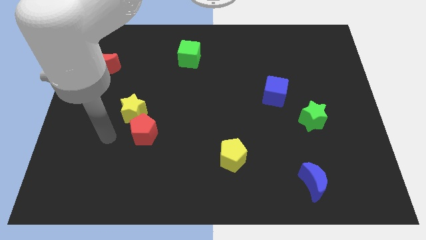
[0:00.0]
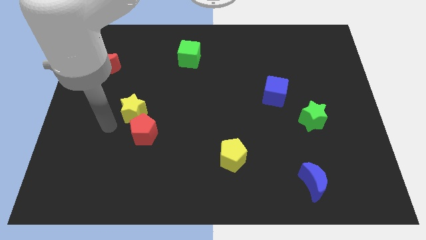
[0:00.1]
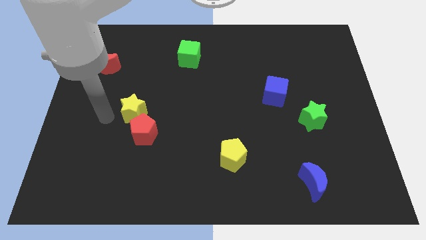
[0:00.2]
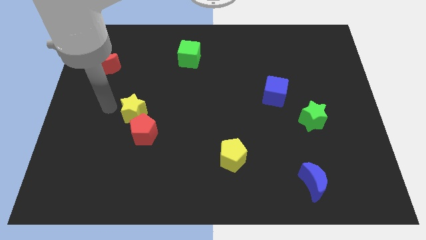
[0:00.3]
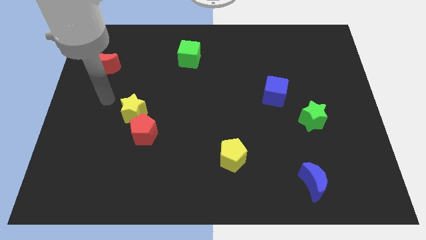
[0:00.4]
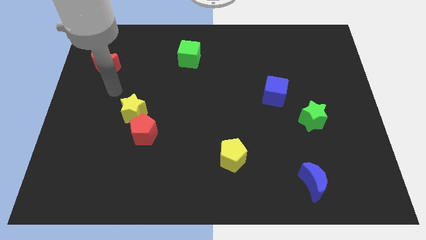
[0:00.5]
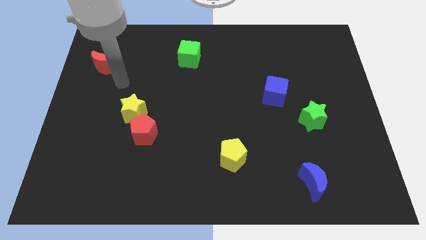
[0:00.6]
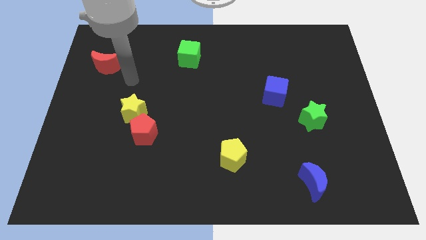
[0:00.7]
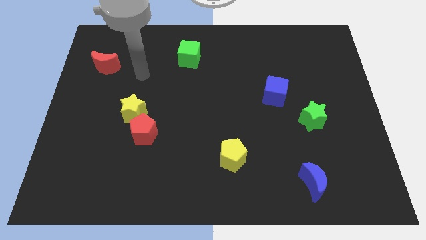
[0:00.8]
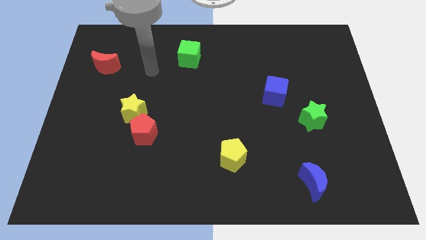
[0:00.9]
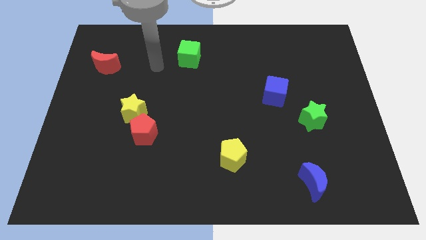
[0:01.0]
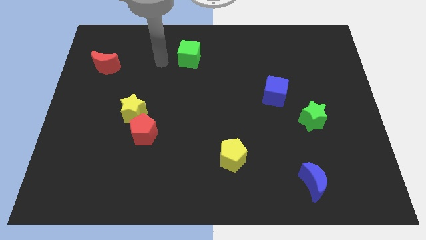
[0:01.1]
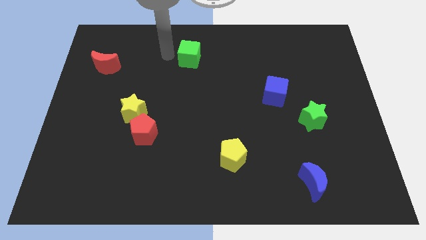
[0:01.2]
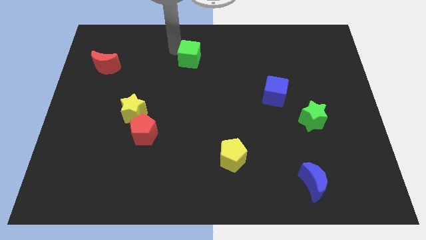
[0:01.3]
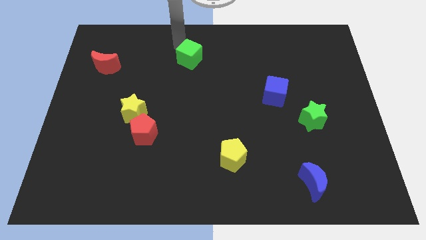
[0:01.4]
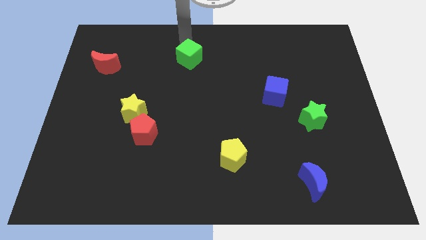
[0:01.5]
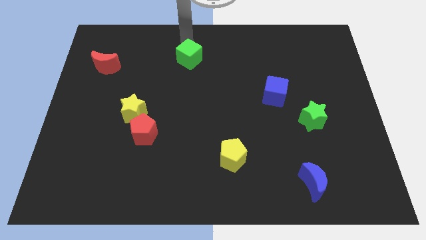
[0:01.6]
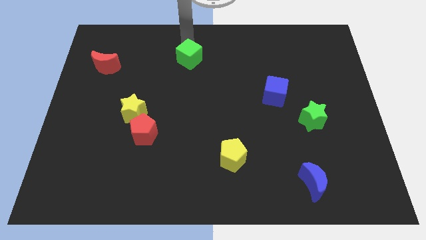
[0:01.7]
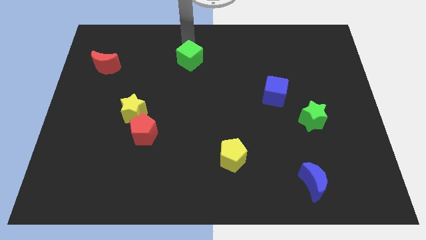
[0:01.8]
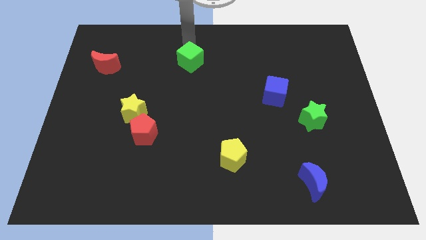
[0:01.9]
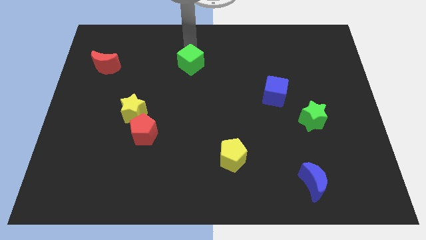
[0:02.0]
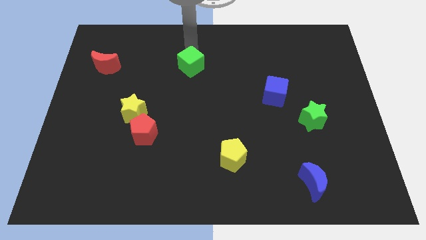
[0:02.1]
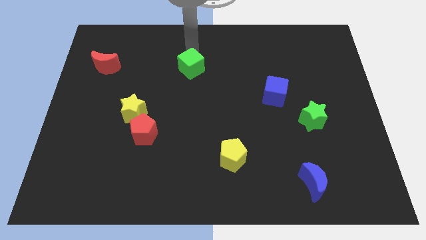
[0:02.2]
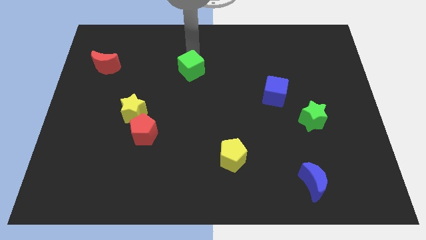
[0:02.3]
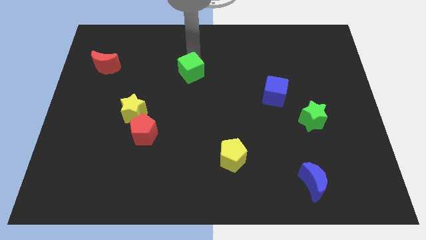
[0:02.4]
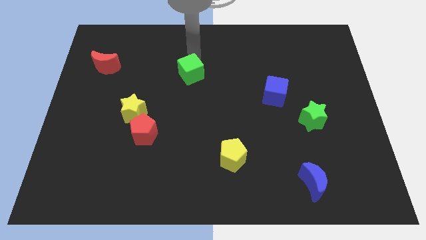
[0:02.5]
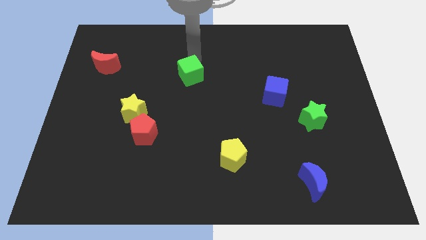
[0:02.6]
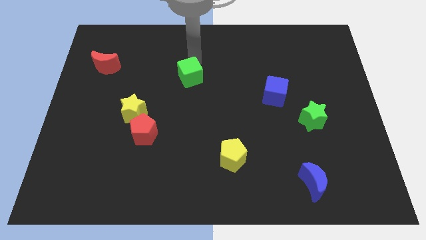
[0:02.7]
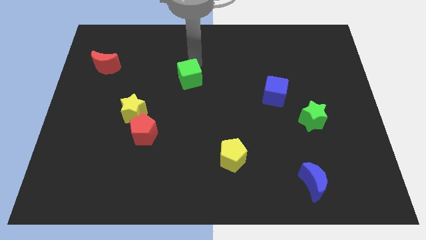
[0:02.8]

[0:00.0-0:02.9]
slightly slide the green cube down

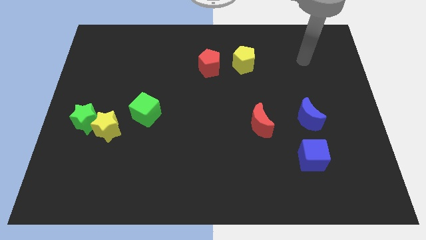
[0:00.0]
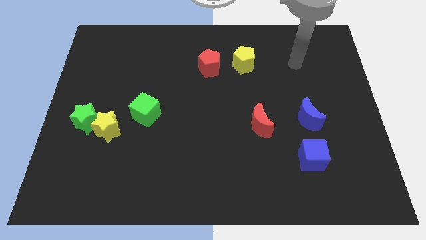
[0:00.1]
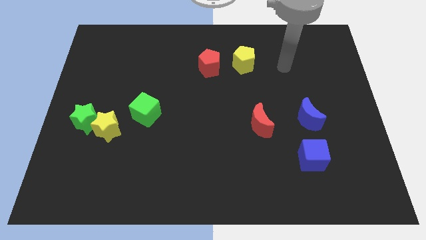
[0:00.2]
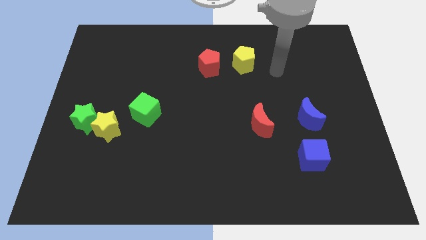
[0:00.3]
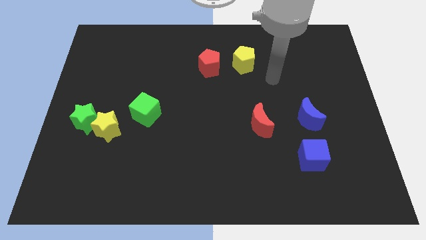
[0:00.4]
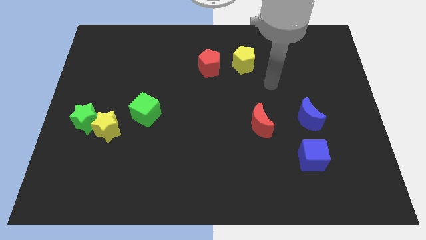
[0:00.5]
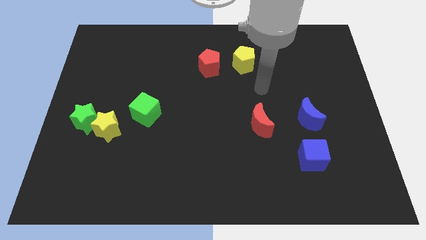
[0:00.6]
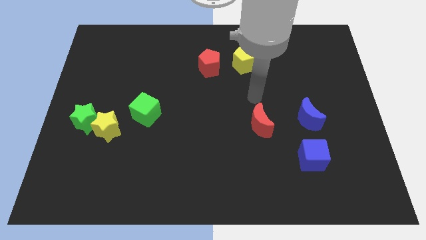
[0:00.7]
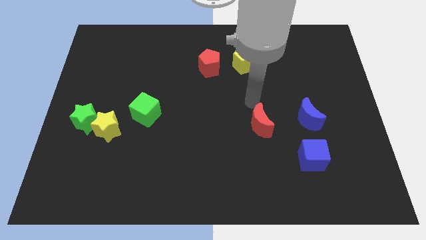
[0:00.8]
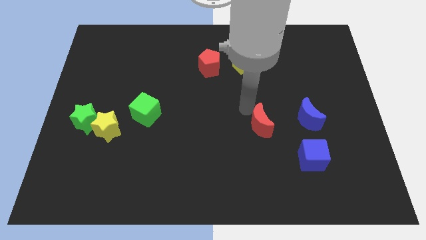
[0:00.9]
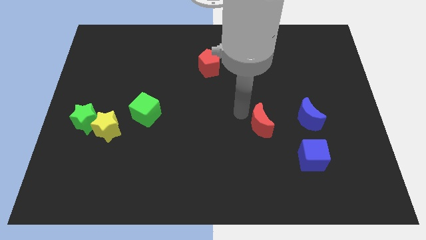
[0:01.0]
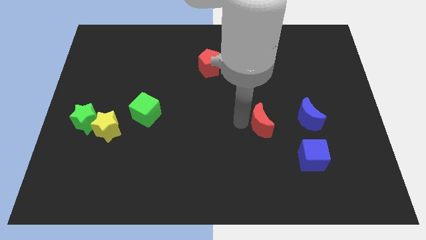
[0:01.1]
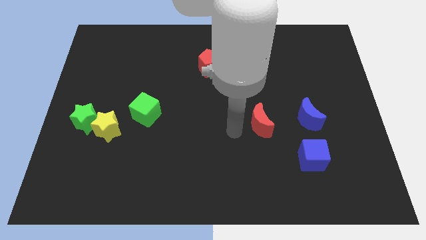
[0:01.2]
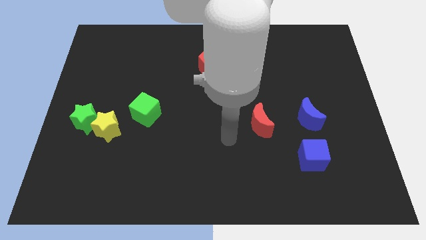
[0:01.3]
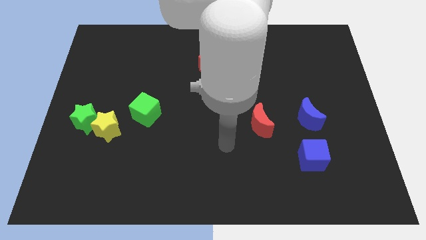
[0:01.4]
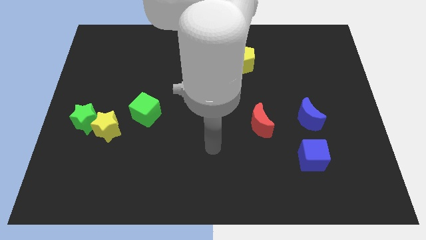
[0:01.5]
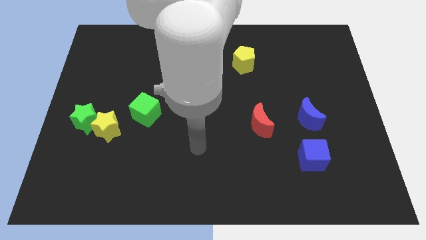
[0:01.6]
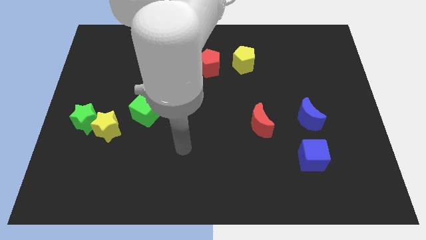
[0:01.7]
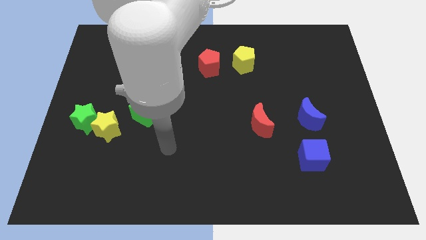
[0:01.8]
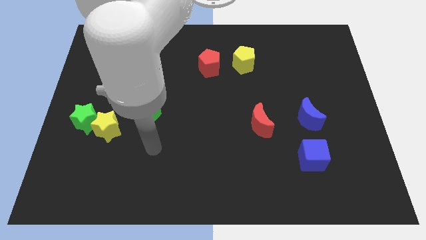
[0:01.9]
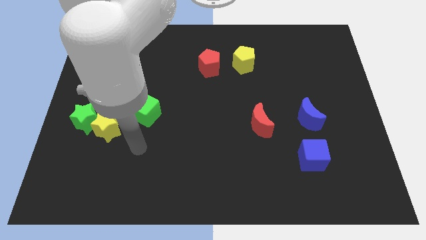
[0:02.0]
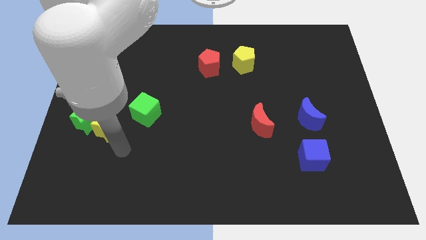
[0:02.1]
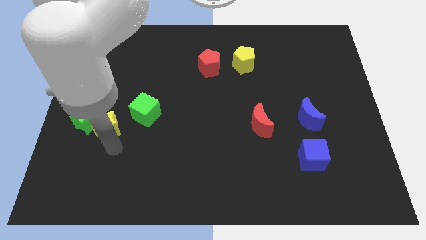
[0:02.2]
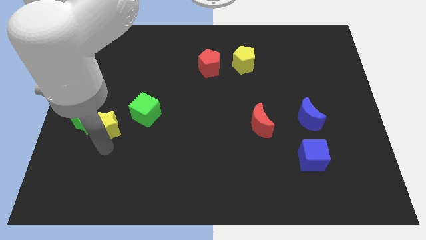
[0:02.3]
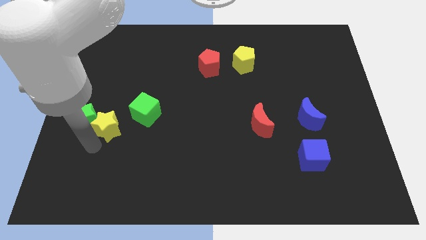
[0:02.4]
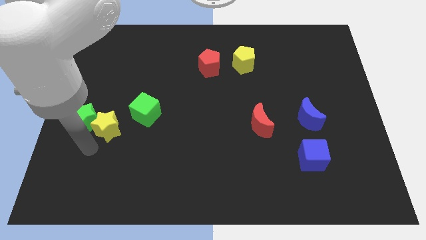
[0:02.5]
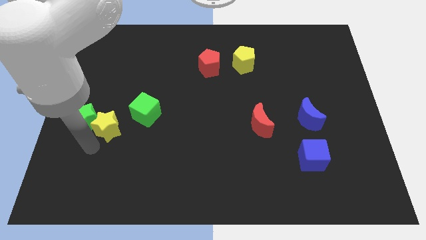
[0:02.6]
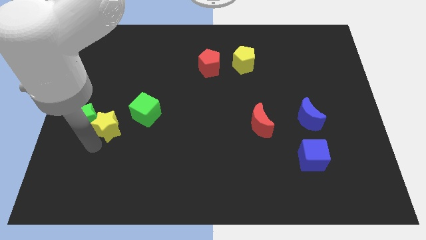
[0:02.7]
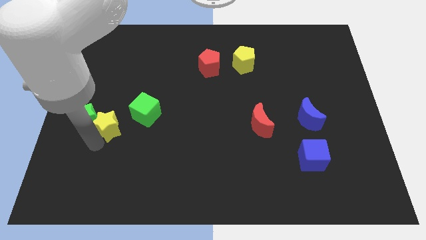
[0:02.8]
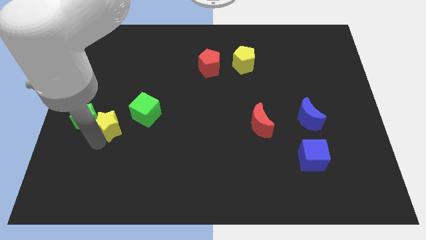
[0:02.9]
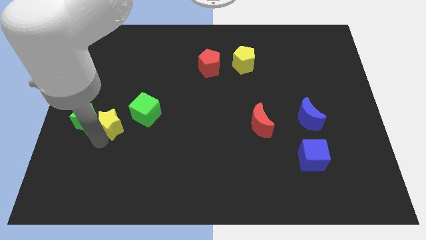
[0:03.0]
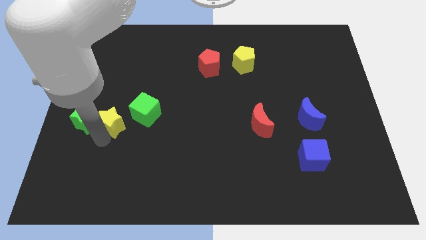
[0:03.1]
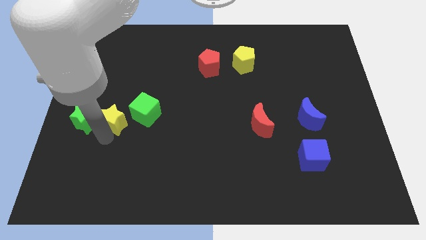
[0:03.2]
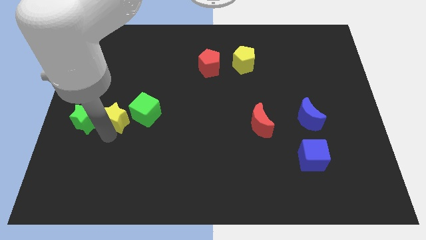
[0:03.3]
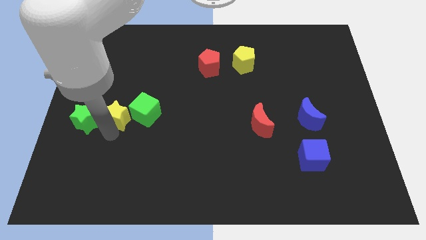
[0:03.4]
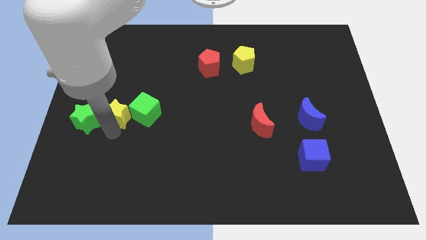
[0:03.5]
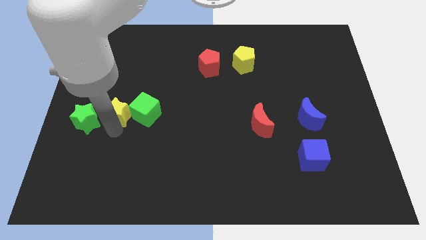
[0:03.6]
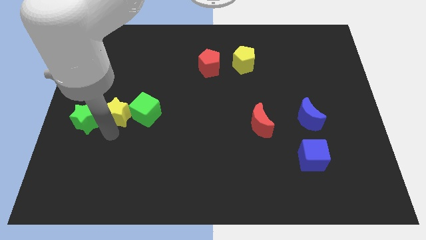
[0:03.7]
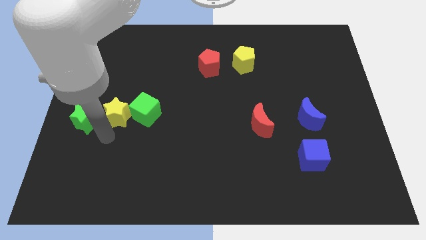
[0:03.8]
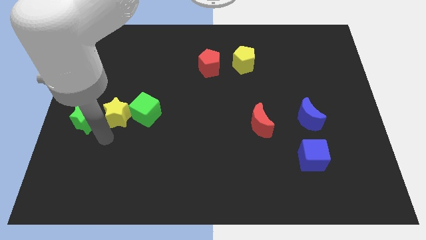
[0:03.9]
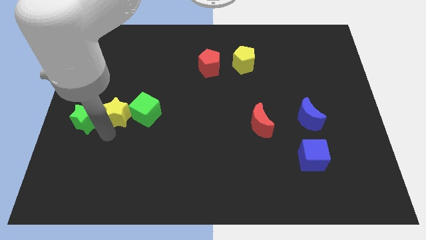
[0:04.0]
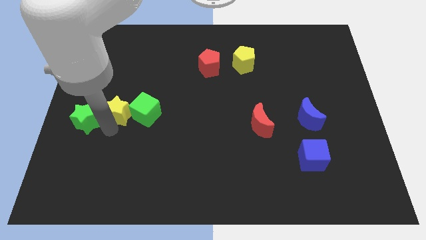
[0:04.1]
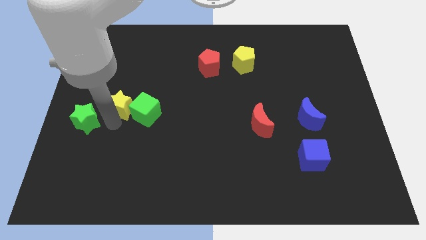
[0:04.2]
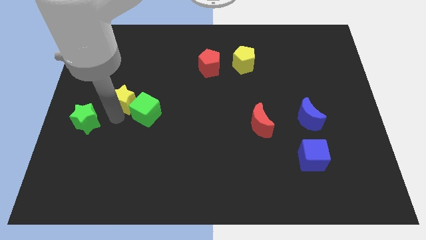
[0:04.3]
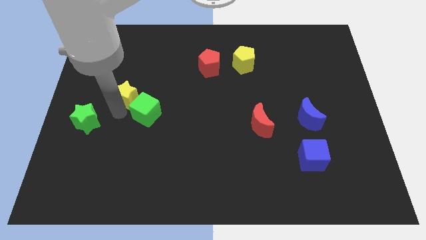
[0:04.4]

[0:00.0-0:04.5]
slightly slide the yellow star diagonally upwards and to the right

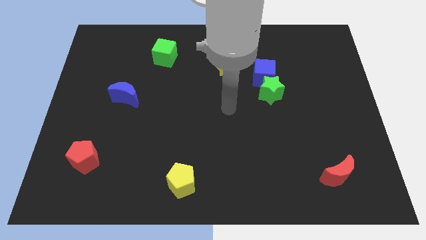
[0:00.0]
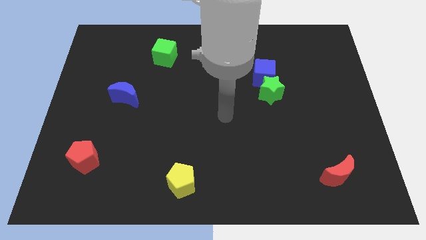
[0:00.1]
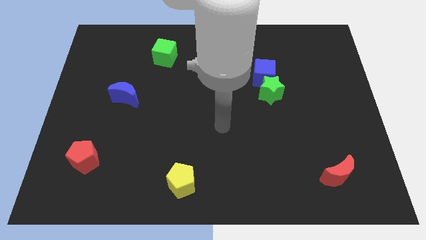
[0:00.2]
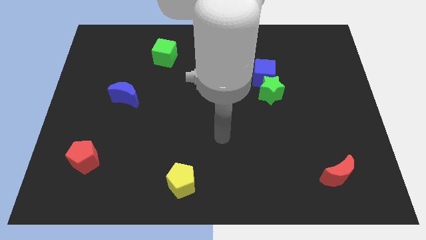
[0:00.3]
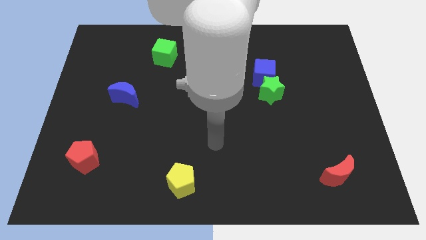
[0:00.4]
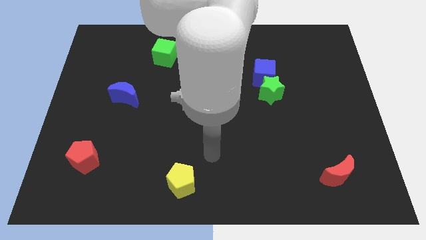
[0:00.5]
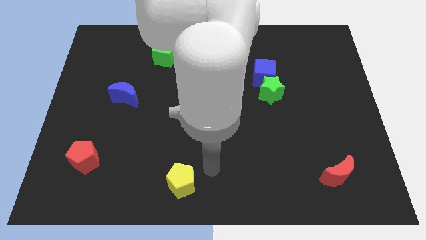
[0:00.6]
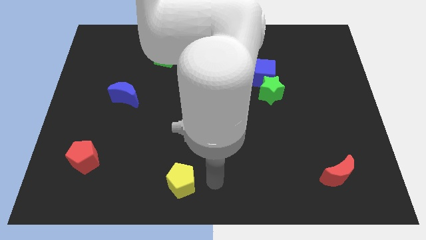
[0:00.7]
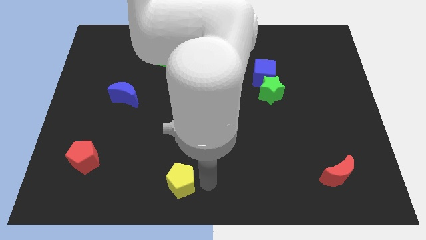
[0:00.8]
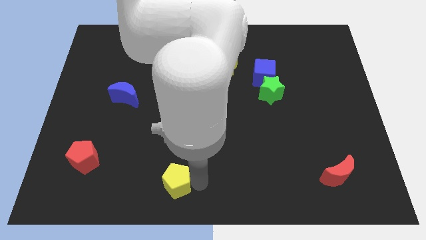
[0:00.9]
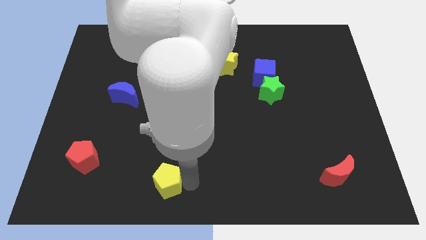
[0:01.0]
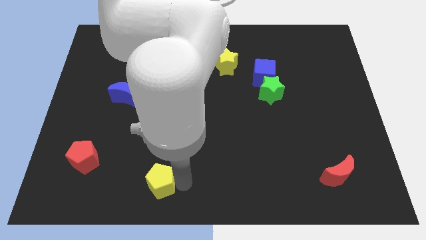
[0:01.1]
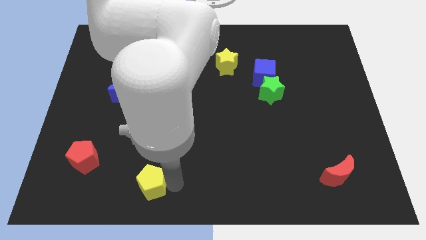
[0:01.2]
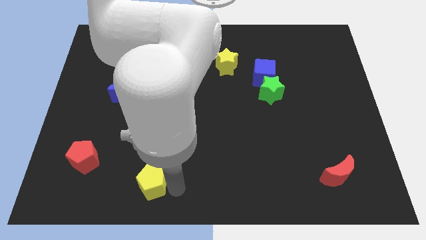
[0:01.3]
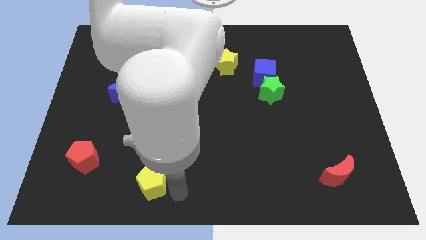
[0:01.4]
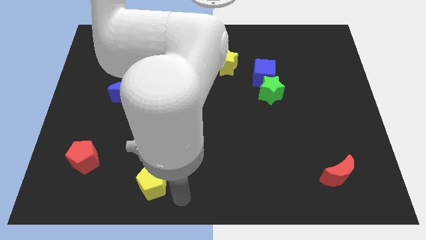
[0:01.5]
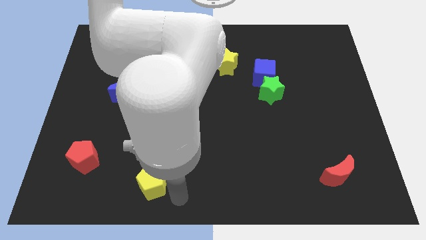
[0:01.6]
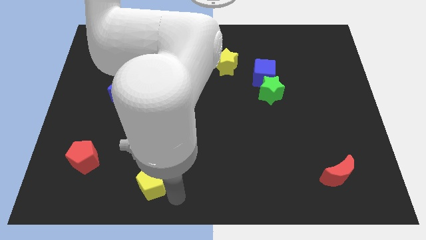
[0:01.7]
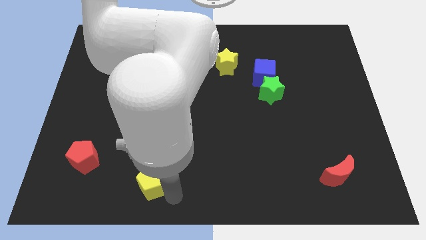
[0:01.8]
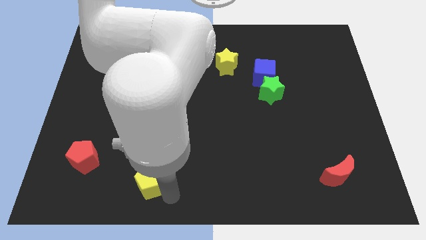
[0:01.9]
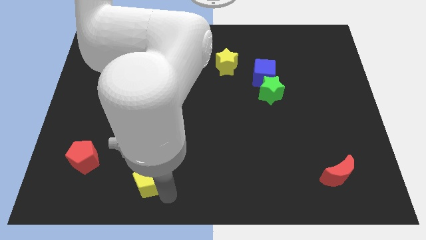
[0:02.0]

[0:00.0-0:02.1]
move the yellow pentagon a little left
